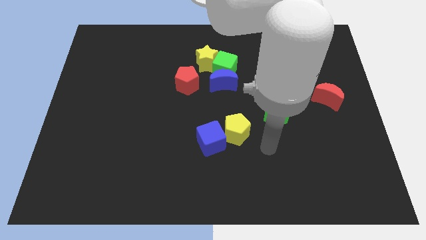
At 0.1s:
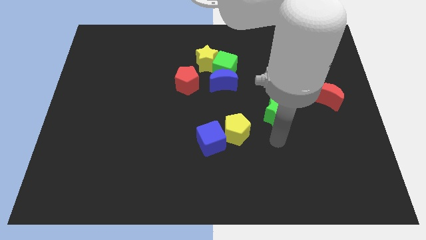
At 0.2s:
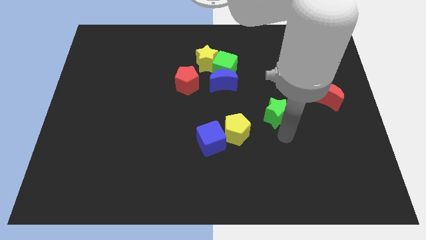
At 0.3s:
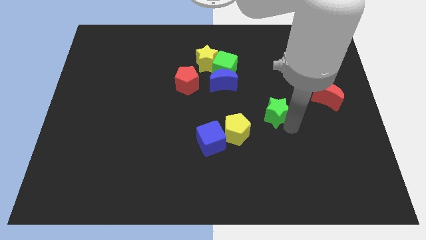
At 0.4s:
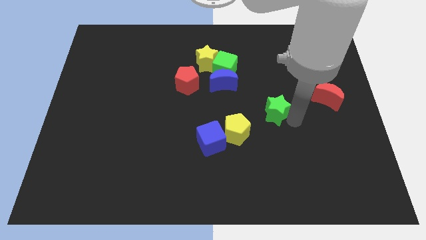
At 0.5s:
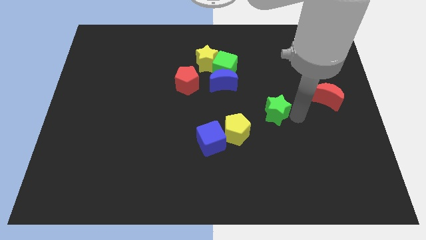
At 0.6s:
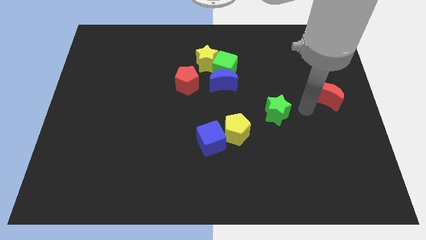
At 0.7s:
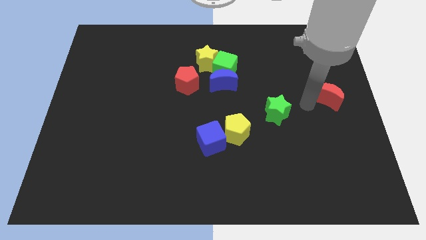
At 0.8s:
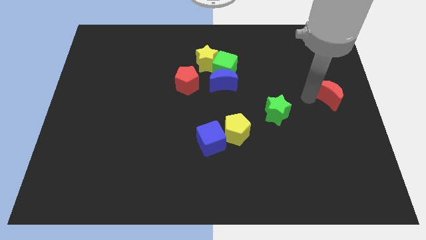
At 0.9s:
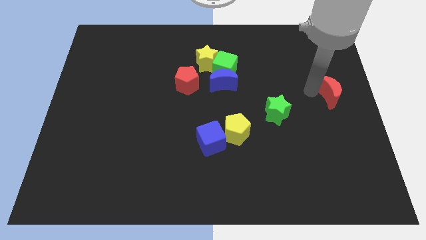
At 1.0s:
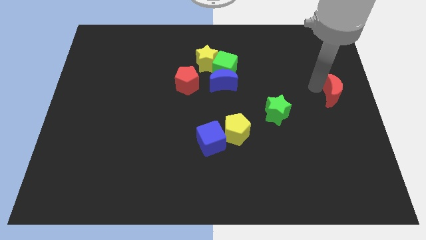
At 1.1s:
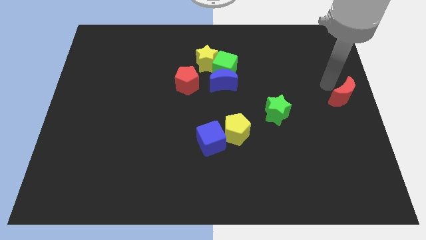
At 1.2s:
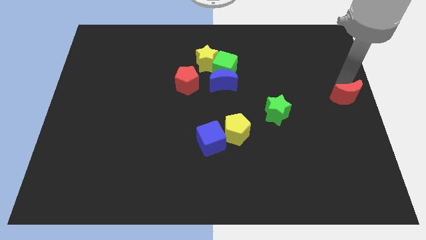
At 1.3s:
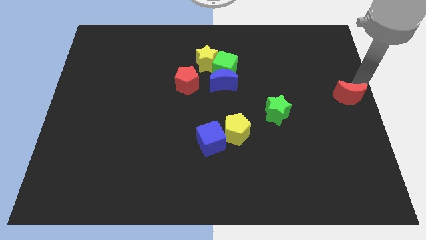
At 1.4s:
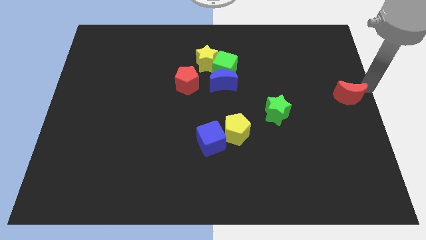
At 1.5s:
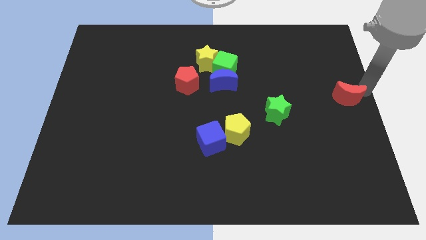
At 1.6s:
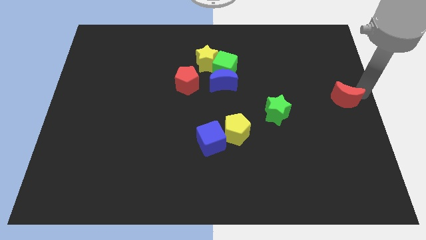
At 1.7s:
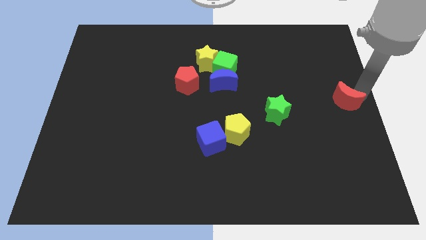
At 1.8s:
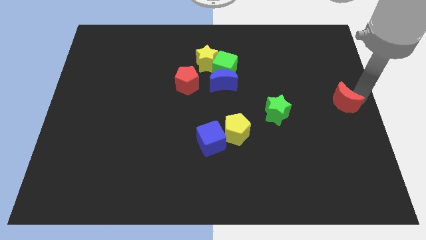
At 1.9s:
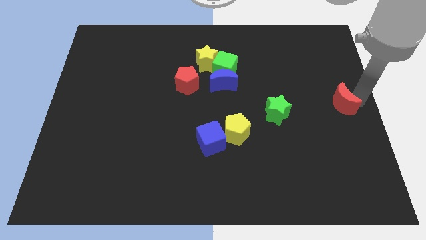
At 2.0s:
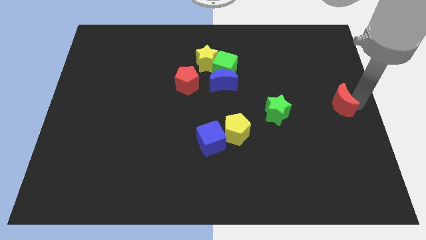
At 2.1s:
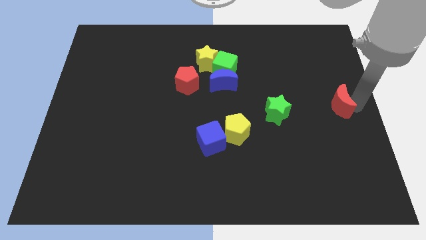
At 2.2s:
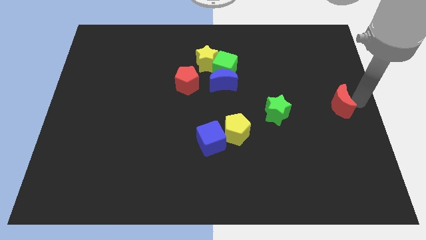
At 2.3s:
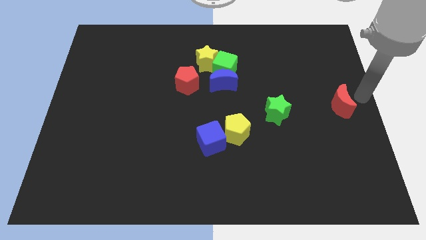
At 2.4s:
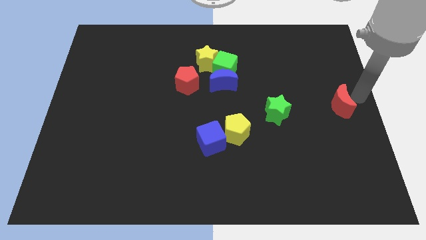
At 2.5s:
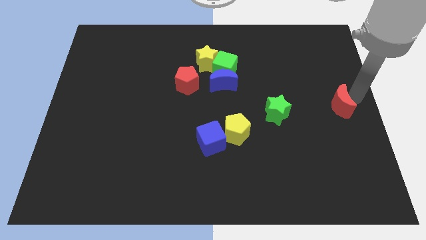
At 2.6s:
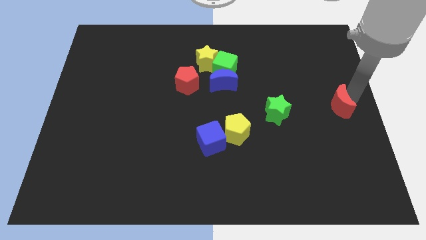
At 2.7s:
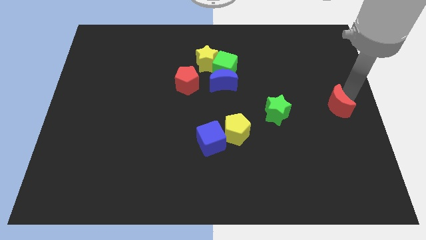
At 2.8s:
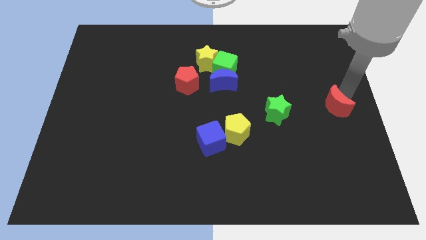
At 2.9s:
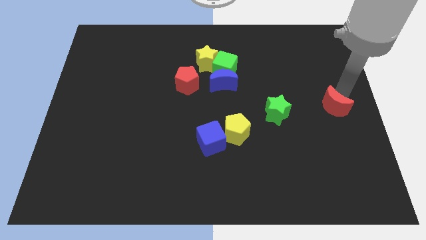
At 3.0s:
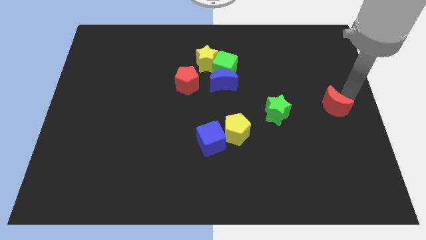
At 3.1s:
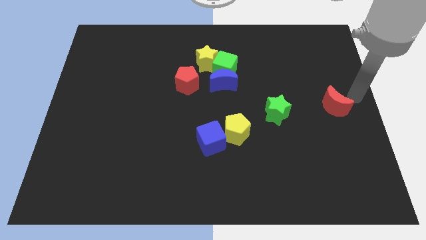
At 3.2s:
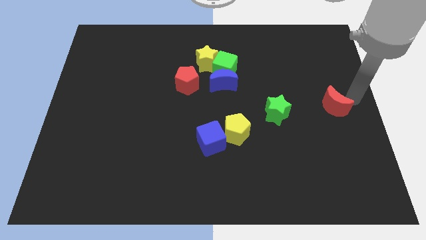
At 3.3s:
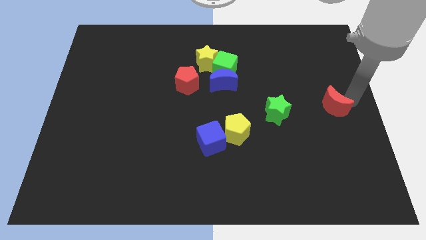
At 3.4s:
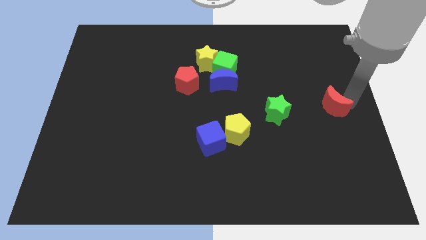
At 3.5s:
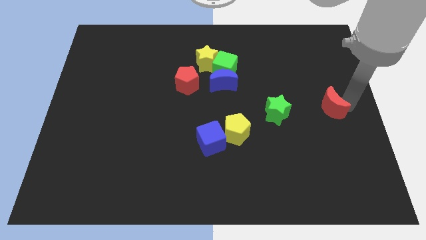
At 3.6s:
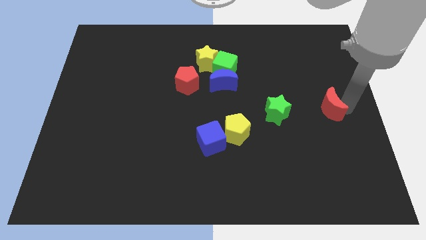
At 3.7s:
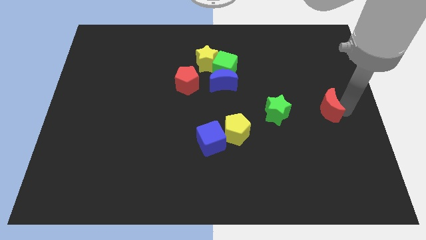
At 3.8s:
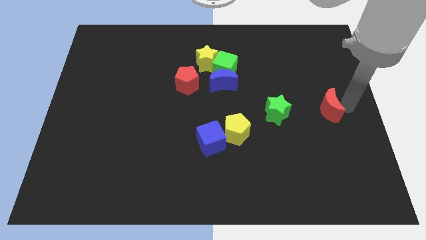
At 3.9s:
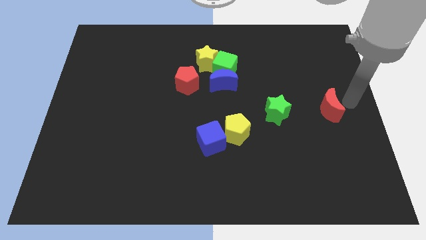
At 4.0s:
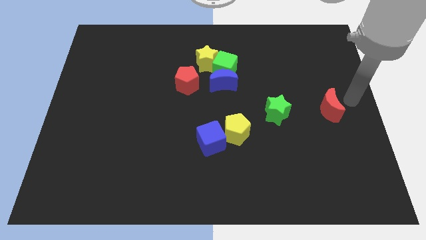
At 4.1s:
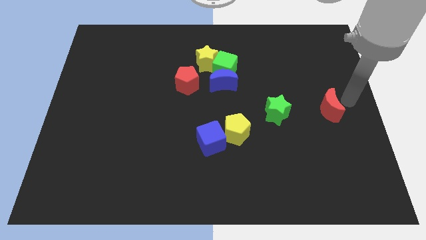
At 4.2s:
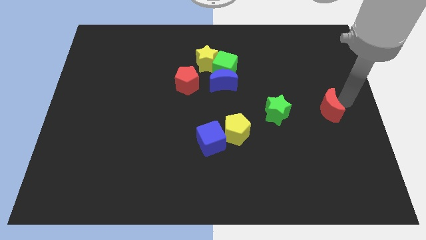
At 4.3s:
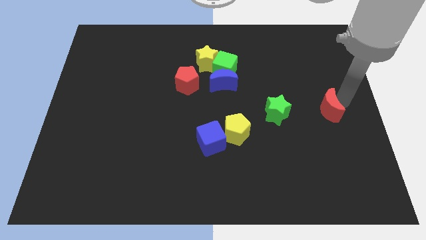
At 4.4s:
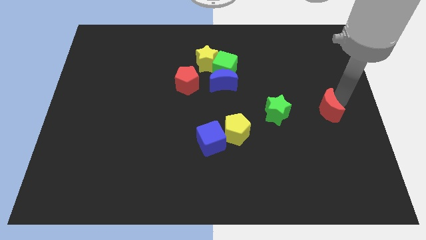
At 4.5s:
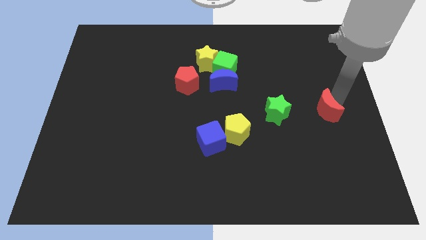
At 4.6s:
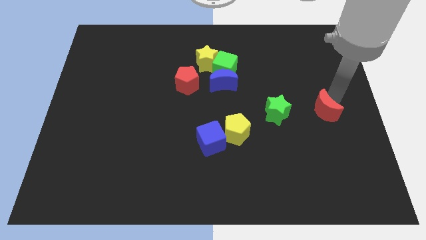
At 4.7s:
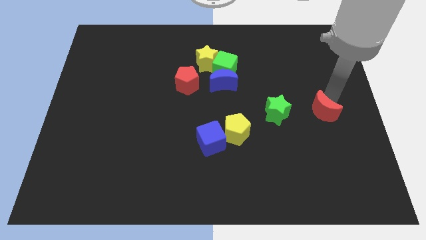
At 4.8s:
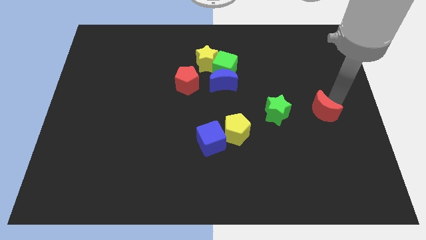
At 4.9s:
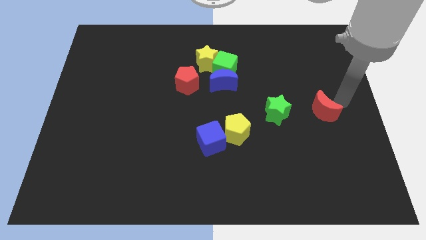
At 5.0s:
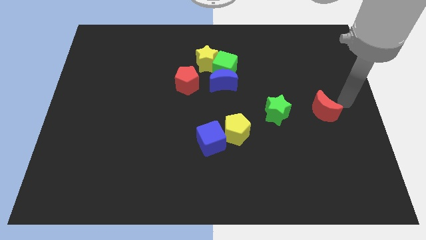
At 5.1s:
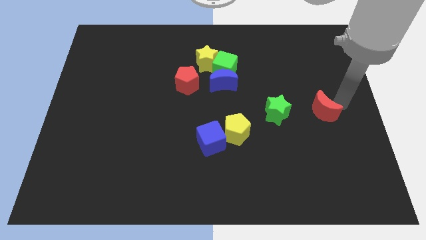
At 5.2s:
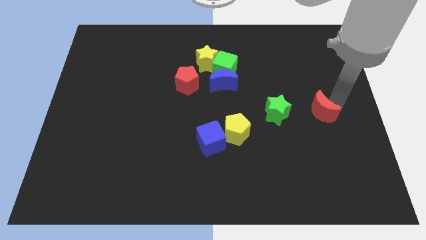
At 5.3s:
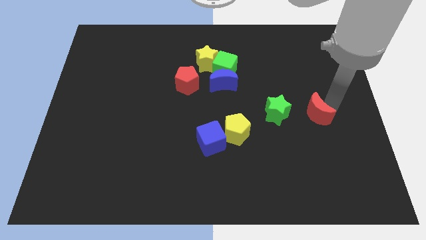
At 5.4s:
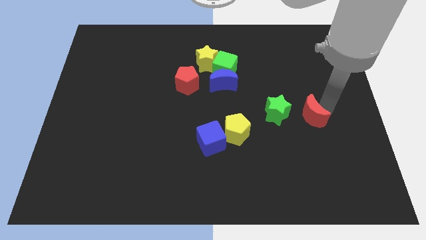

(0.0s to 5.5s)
move the red moon a little downwards and left

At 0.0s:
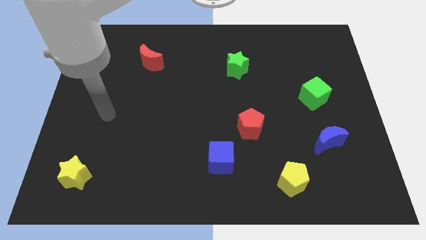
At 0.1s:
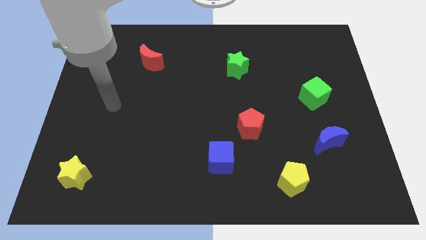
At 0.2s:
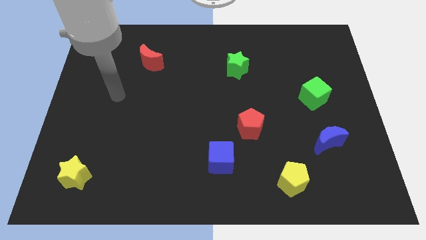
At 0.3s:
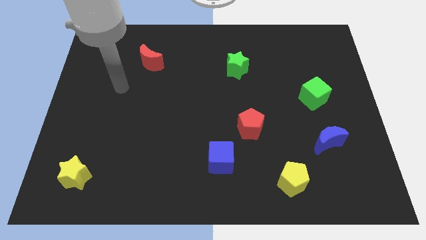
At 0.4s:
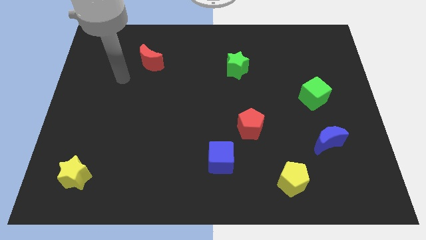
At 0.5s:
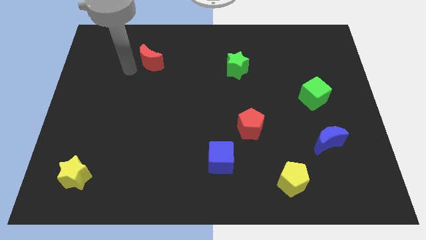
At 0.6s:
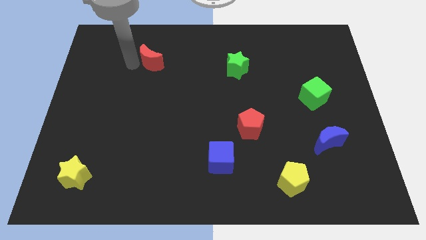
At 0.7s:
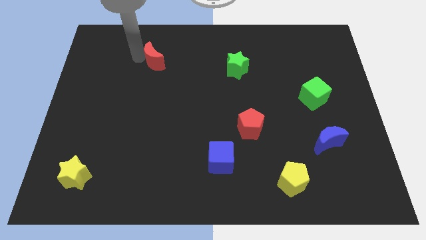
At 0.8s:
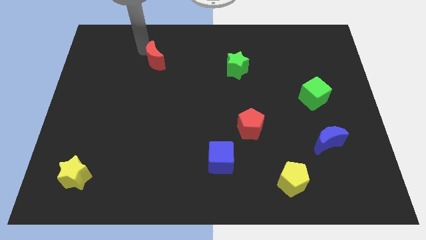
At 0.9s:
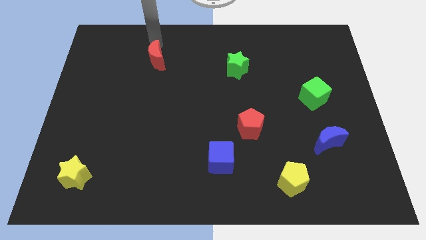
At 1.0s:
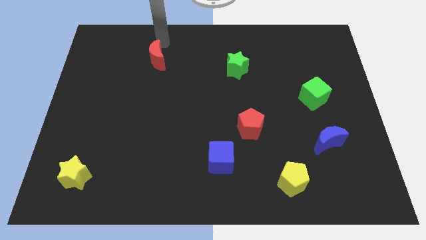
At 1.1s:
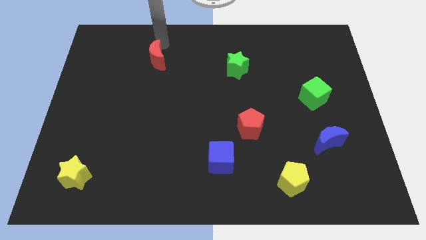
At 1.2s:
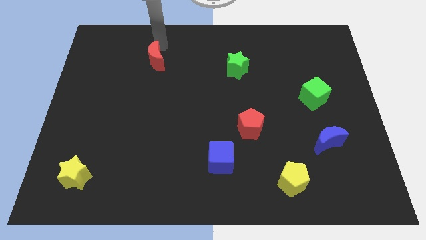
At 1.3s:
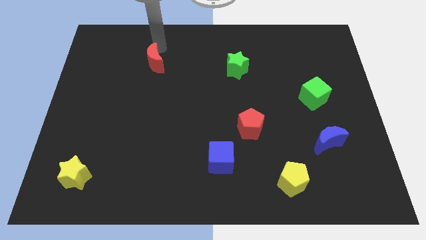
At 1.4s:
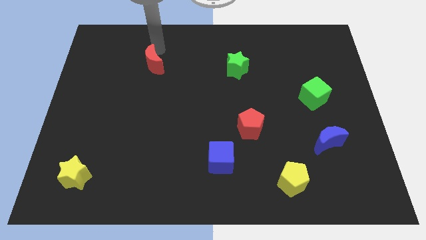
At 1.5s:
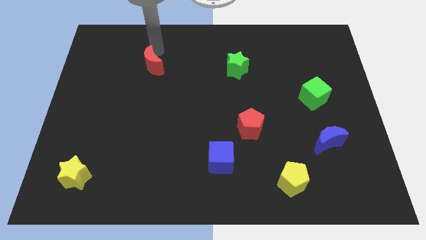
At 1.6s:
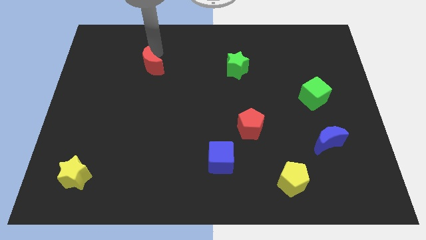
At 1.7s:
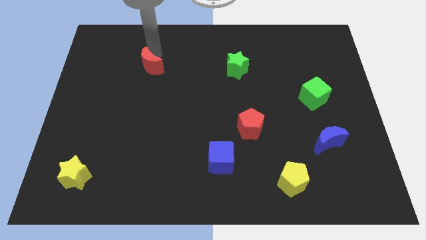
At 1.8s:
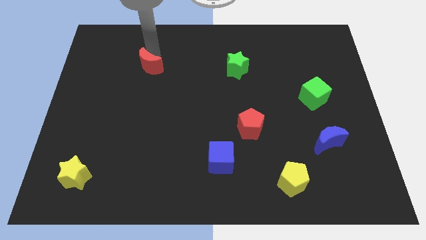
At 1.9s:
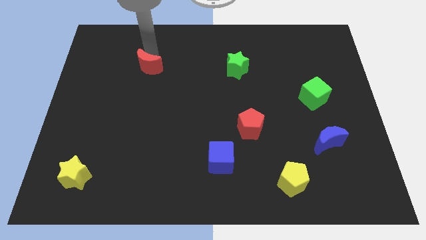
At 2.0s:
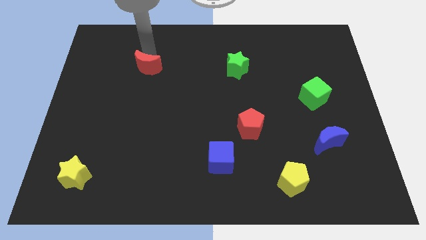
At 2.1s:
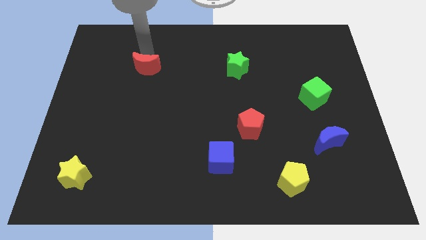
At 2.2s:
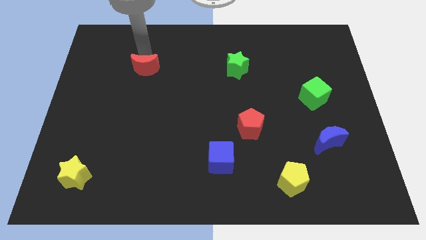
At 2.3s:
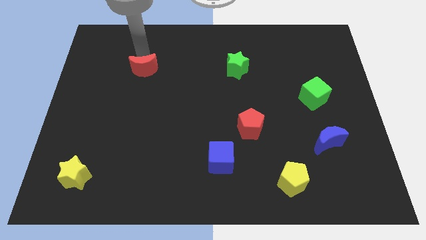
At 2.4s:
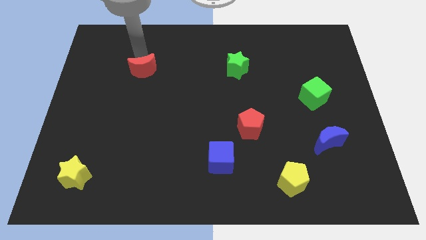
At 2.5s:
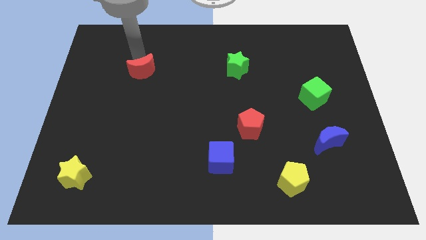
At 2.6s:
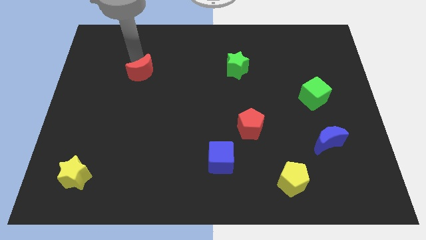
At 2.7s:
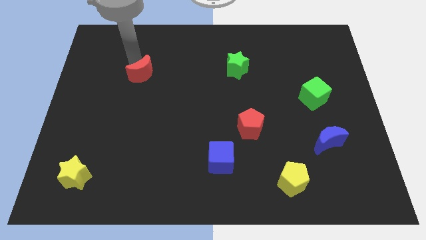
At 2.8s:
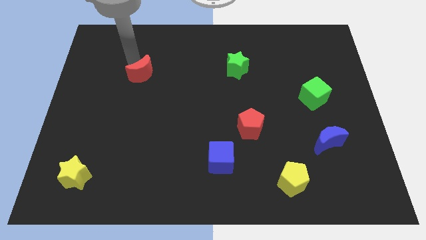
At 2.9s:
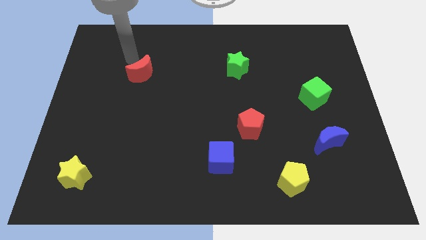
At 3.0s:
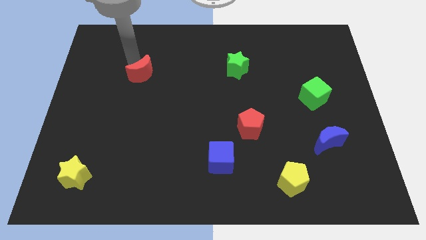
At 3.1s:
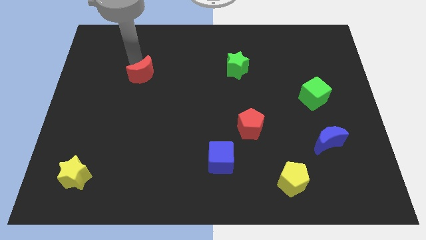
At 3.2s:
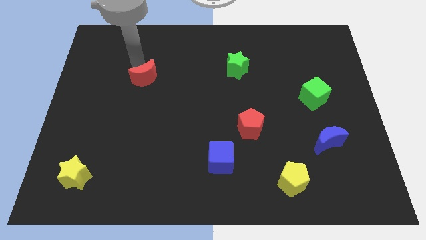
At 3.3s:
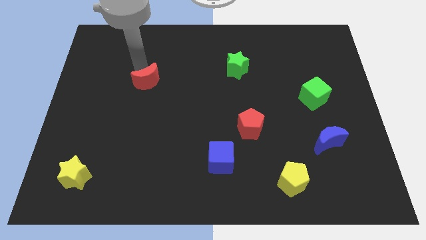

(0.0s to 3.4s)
slightly move the red moon downwards
